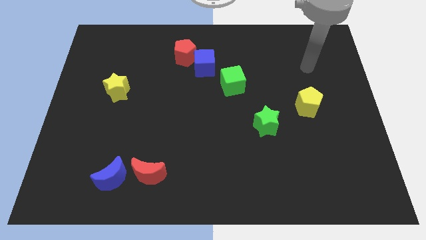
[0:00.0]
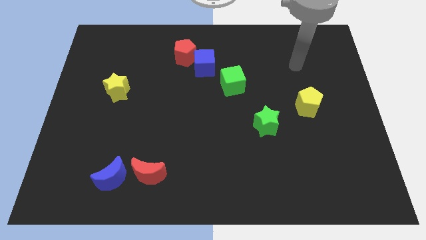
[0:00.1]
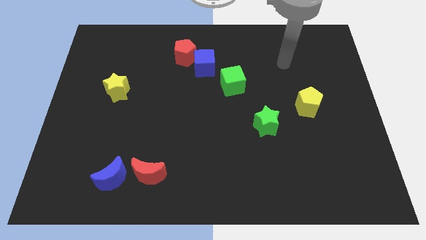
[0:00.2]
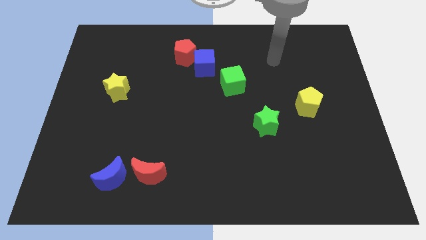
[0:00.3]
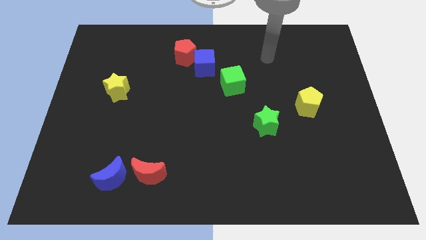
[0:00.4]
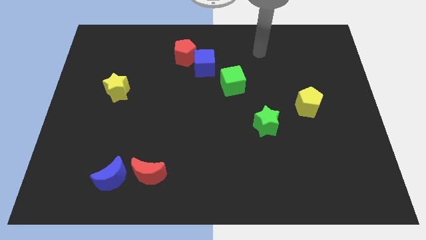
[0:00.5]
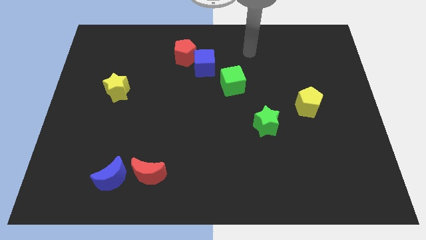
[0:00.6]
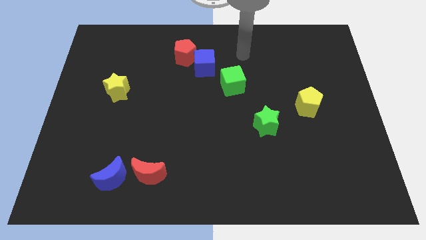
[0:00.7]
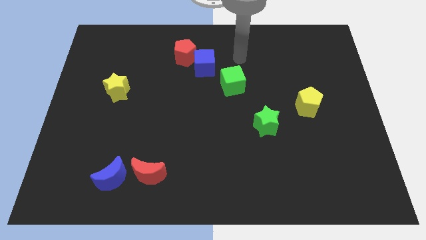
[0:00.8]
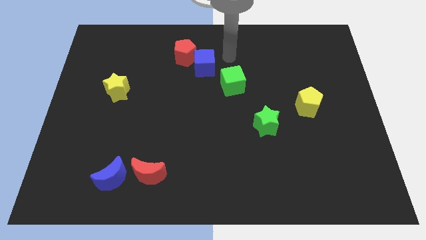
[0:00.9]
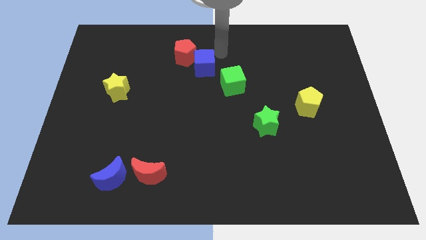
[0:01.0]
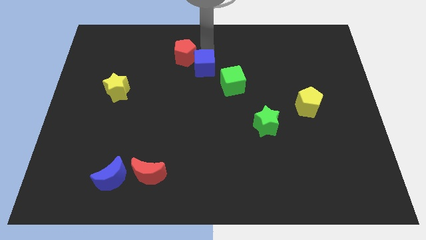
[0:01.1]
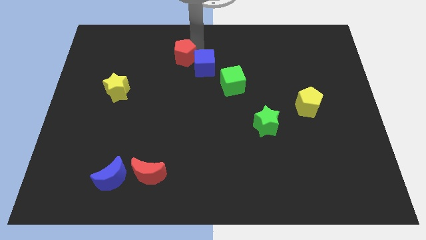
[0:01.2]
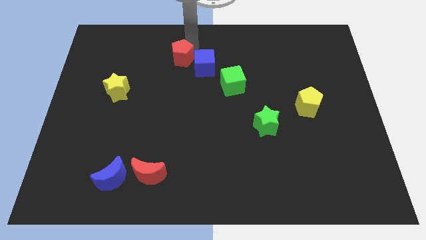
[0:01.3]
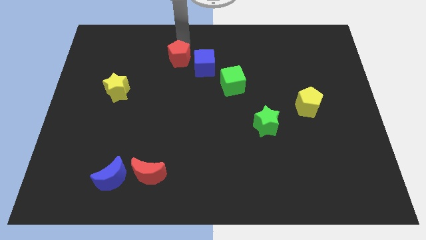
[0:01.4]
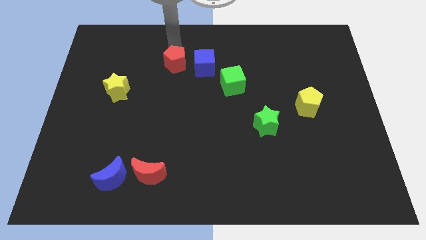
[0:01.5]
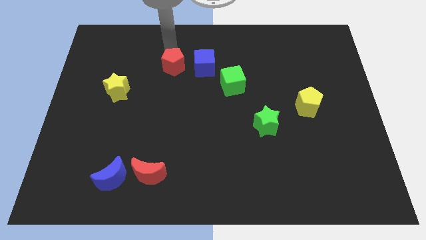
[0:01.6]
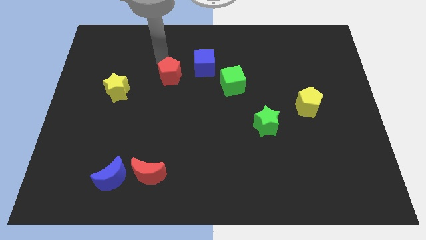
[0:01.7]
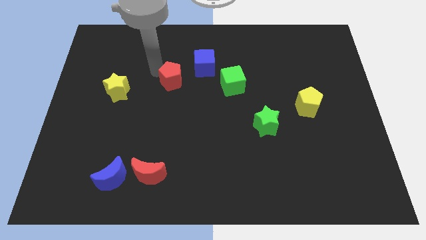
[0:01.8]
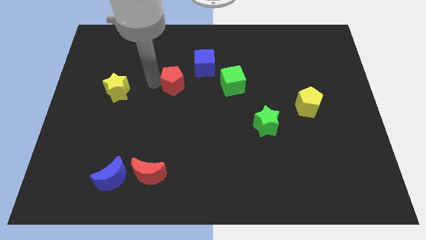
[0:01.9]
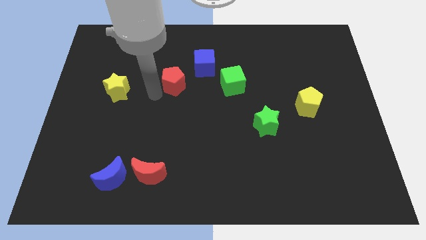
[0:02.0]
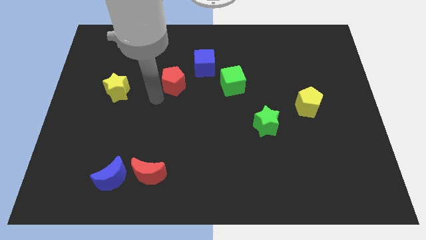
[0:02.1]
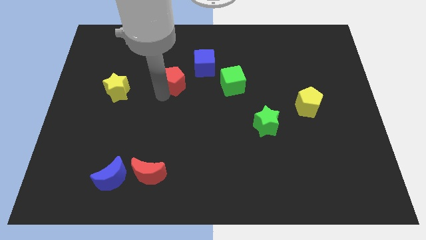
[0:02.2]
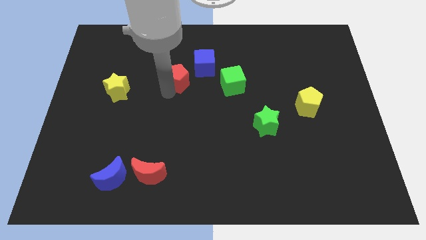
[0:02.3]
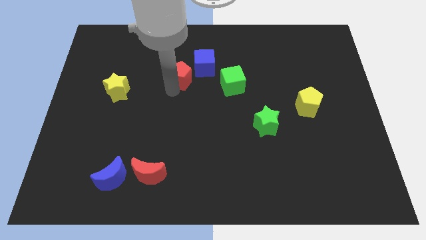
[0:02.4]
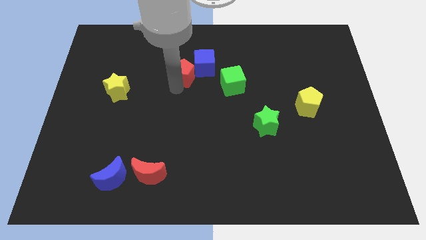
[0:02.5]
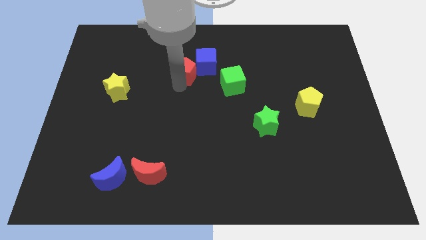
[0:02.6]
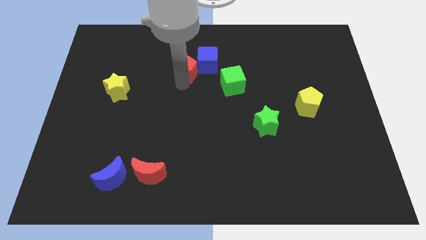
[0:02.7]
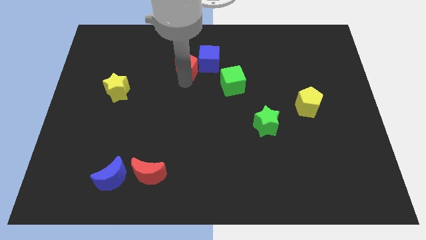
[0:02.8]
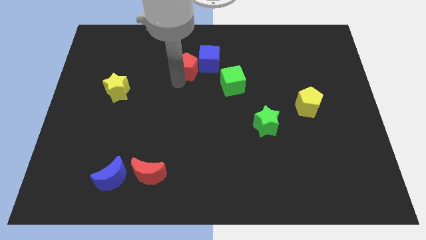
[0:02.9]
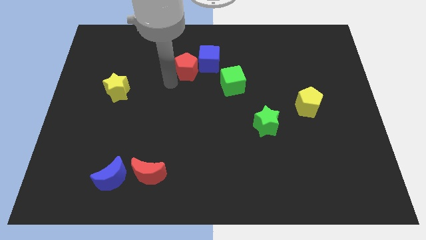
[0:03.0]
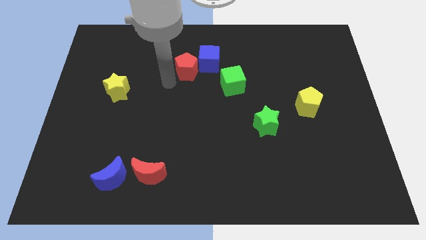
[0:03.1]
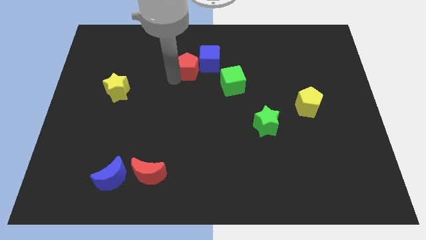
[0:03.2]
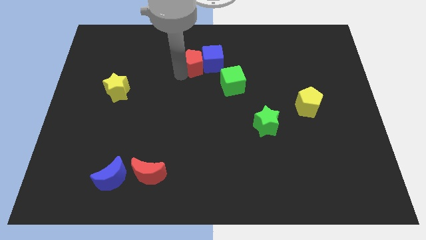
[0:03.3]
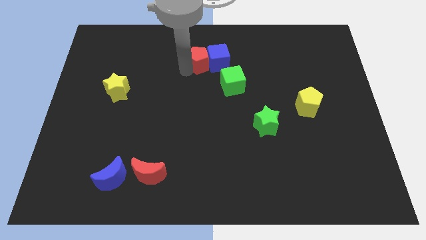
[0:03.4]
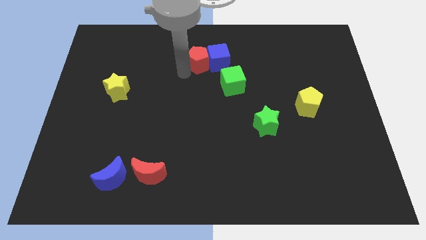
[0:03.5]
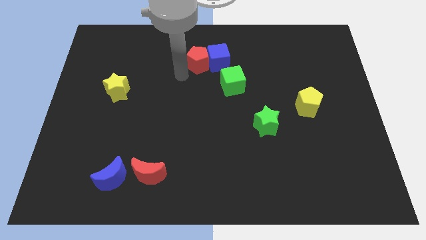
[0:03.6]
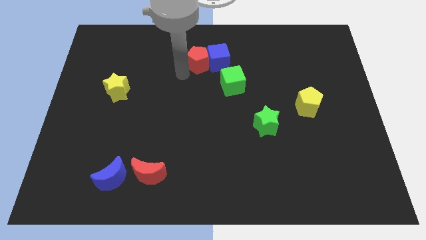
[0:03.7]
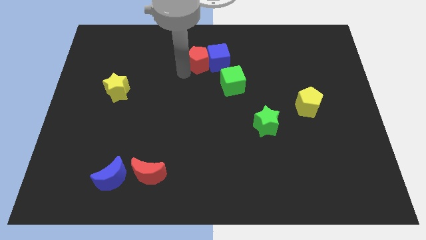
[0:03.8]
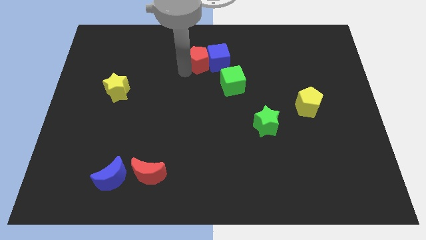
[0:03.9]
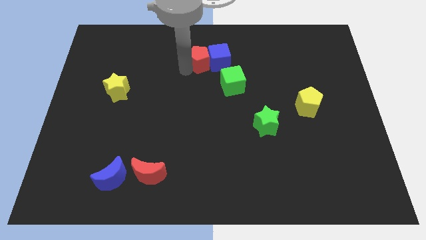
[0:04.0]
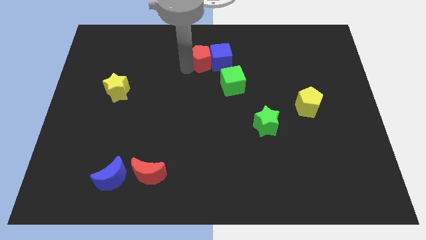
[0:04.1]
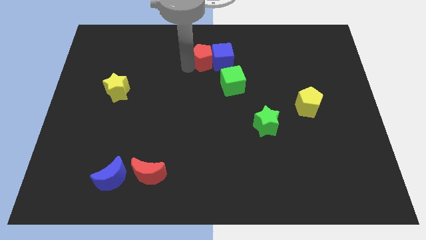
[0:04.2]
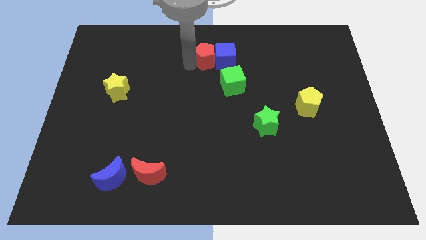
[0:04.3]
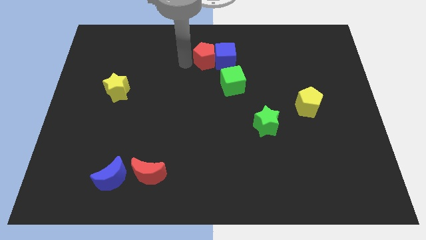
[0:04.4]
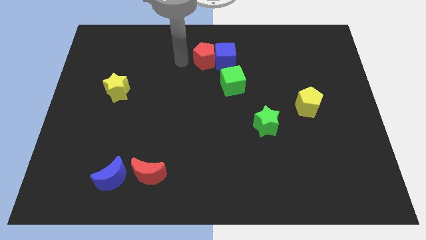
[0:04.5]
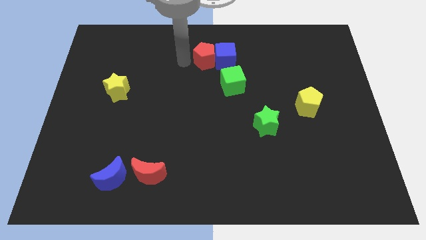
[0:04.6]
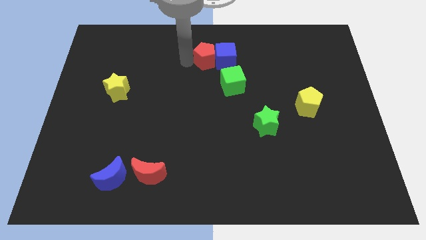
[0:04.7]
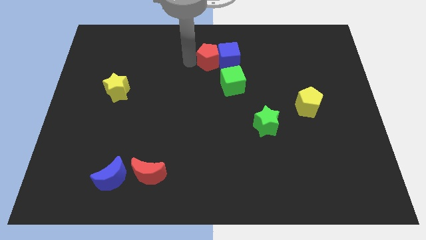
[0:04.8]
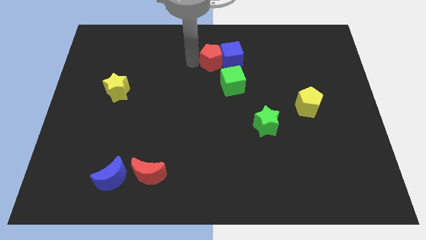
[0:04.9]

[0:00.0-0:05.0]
push the red pentagon to the right somewhat

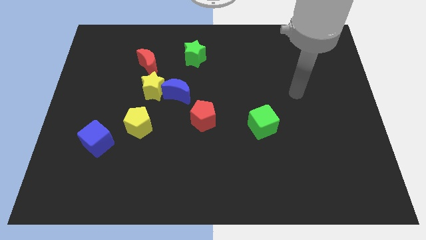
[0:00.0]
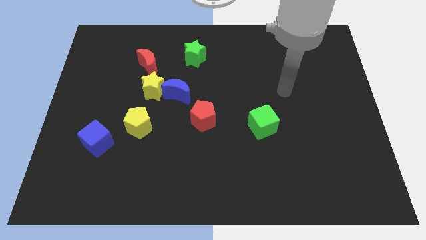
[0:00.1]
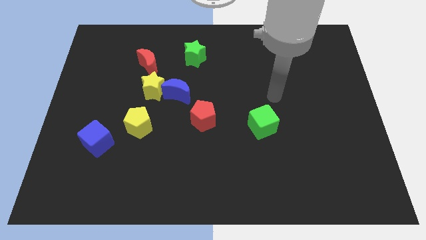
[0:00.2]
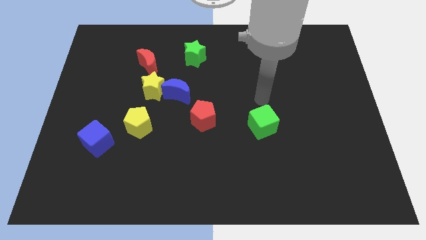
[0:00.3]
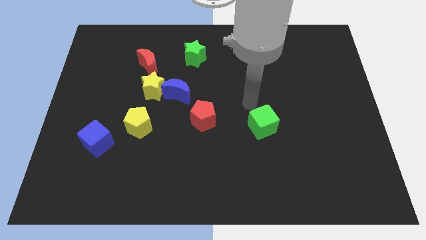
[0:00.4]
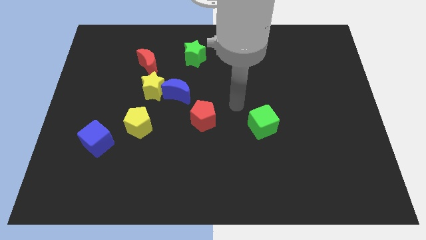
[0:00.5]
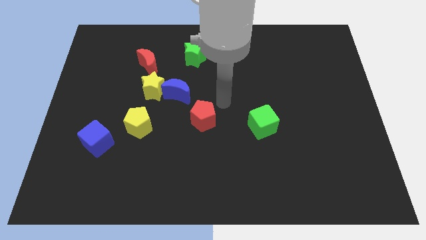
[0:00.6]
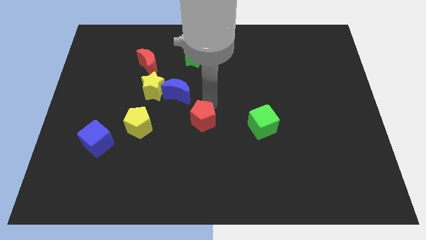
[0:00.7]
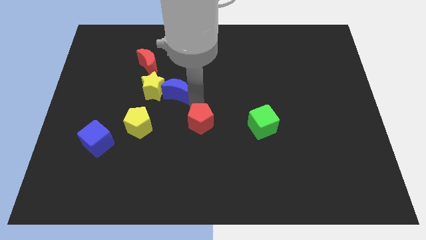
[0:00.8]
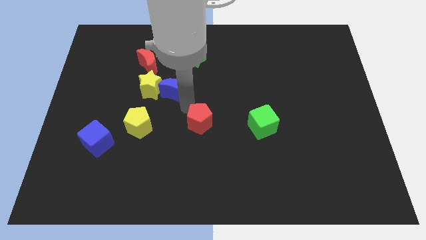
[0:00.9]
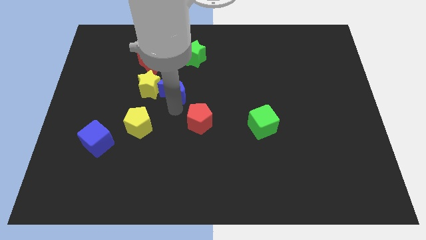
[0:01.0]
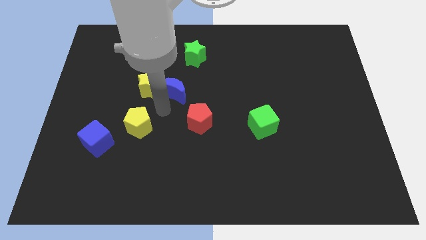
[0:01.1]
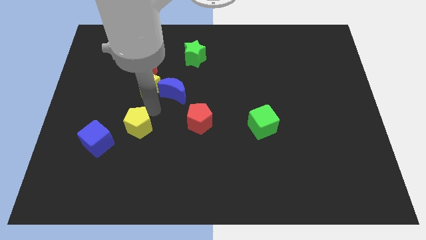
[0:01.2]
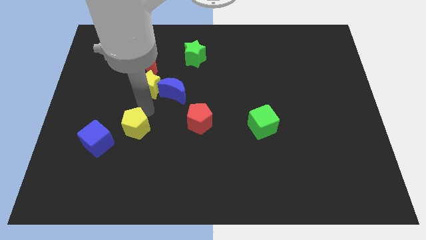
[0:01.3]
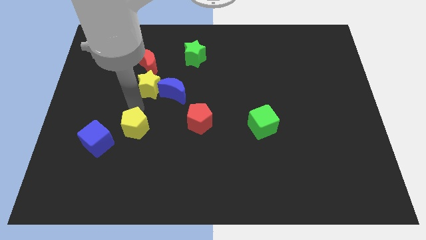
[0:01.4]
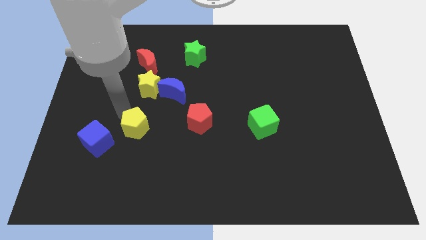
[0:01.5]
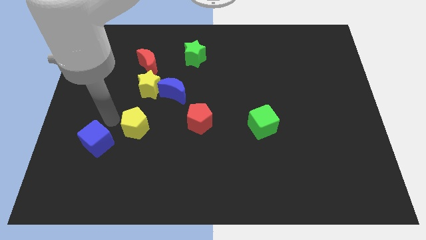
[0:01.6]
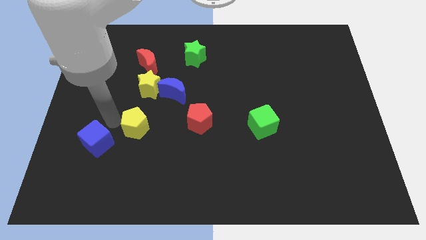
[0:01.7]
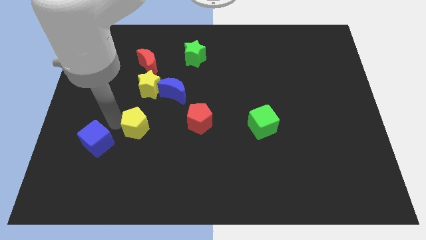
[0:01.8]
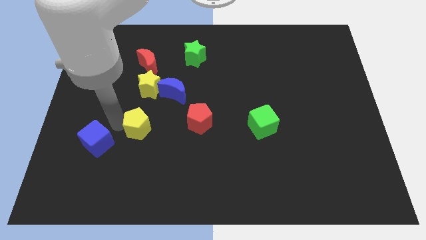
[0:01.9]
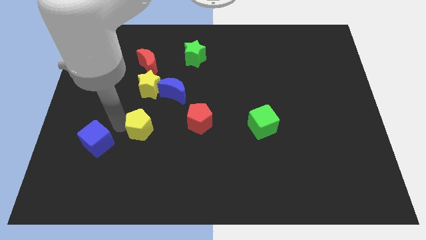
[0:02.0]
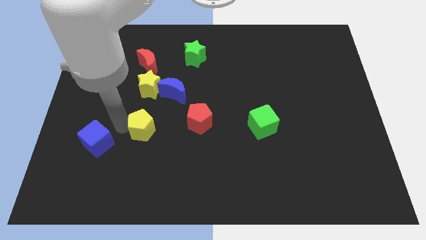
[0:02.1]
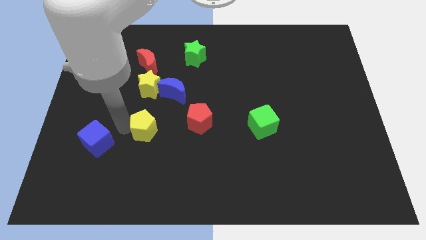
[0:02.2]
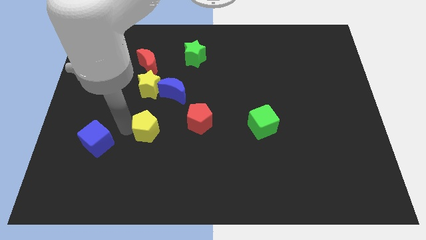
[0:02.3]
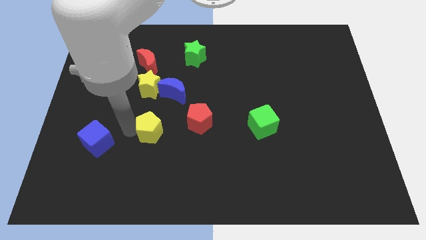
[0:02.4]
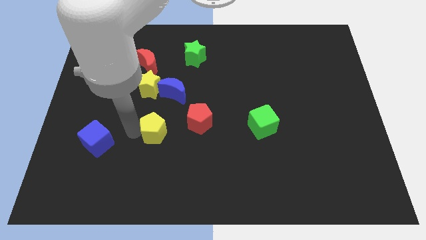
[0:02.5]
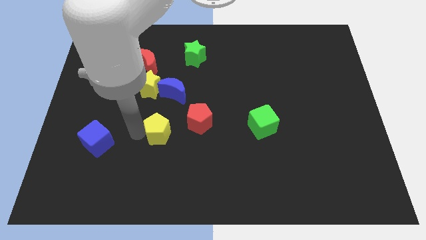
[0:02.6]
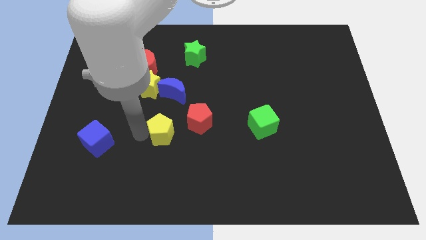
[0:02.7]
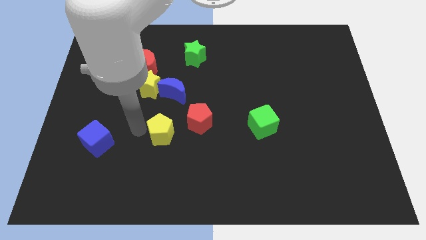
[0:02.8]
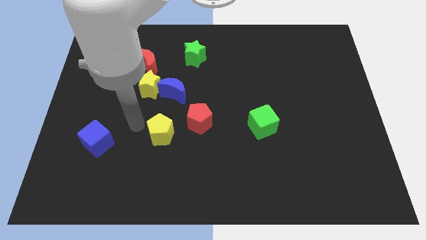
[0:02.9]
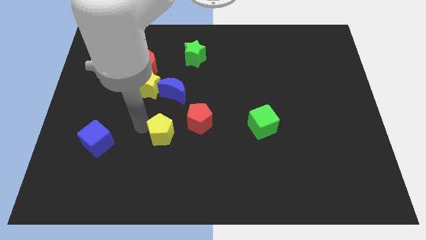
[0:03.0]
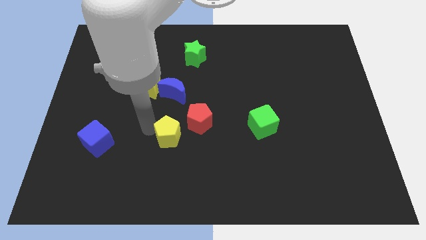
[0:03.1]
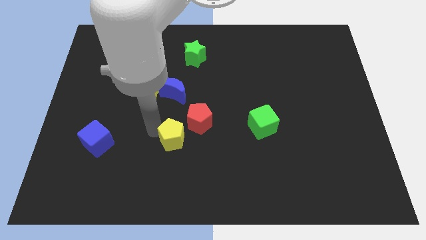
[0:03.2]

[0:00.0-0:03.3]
push the yellow pentagon a little bit right
